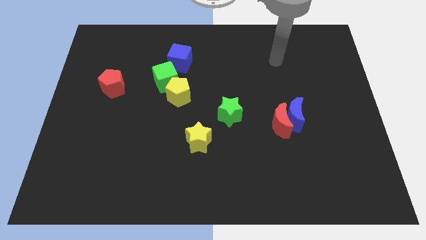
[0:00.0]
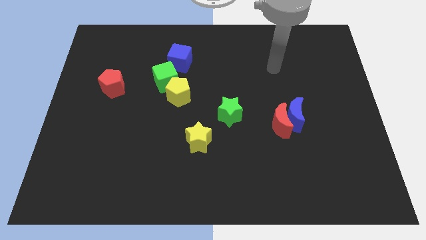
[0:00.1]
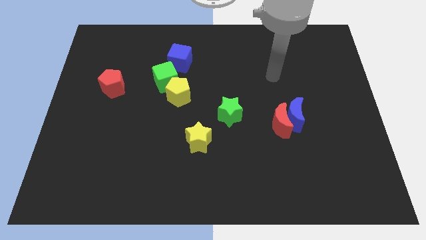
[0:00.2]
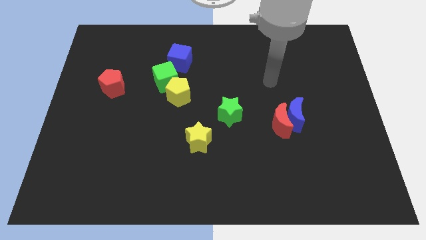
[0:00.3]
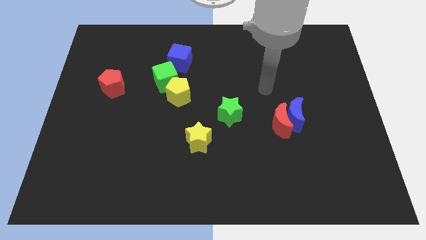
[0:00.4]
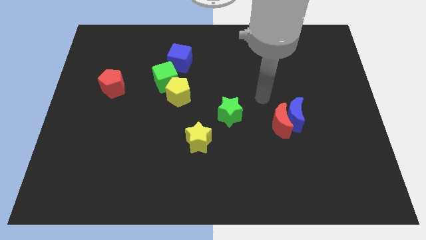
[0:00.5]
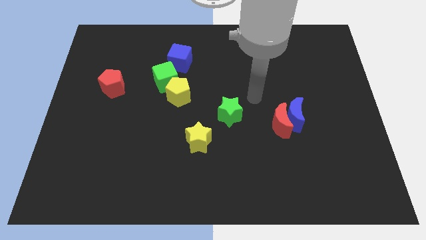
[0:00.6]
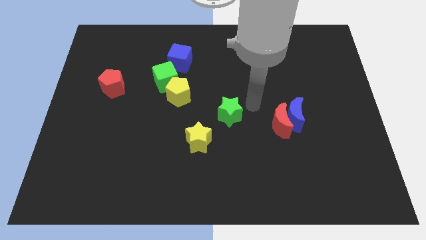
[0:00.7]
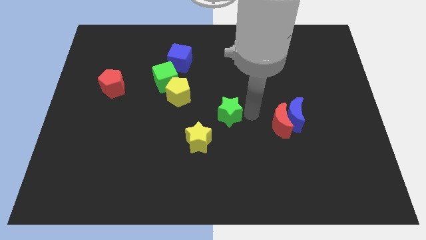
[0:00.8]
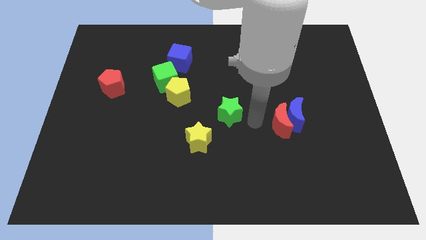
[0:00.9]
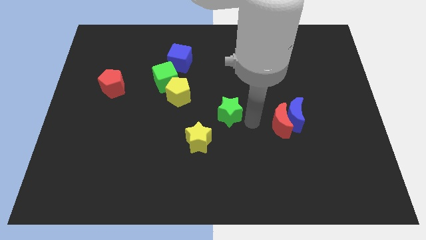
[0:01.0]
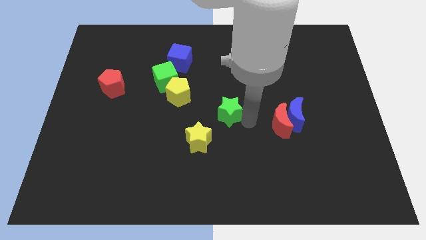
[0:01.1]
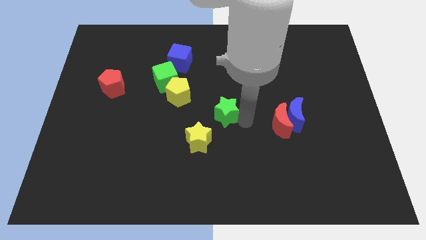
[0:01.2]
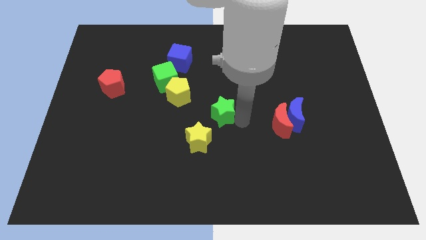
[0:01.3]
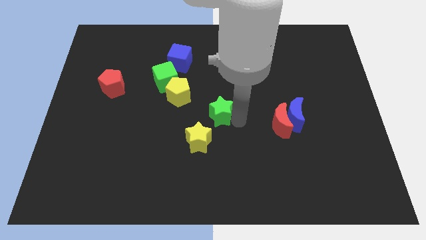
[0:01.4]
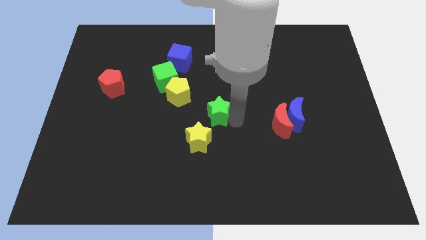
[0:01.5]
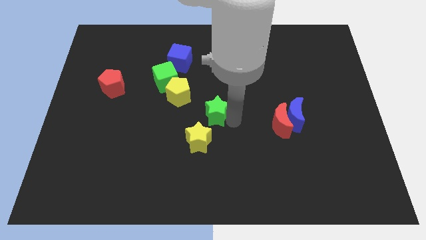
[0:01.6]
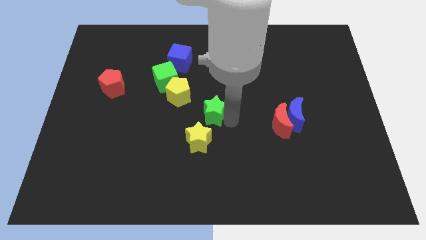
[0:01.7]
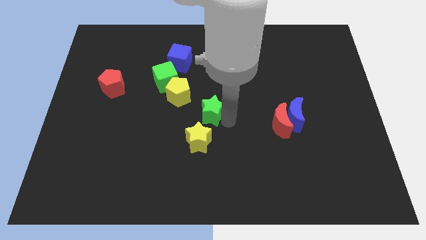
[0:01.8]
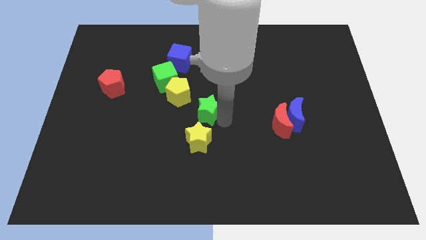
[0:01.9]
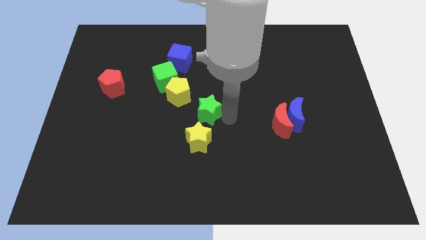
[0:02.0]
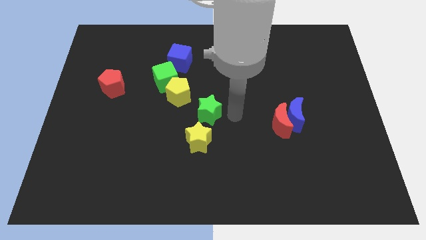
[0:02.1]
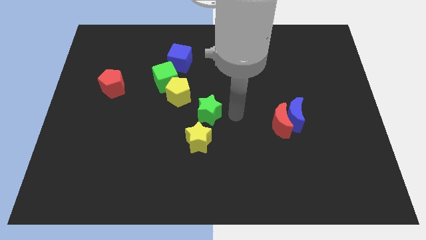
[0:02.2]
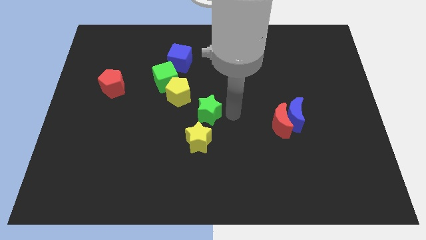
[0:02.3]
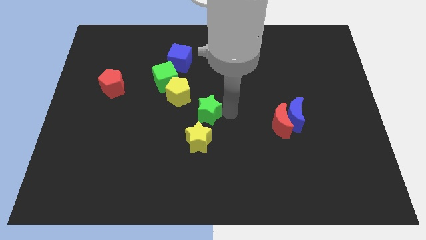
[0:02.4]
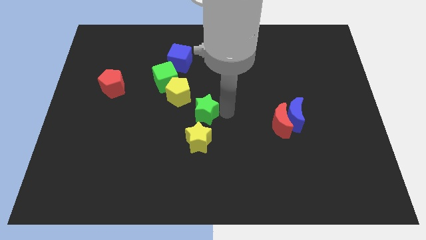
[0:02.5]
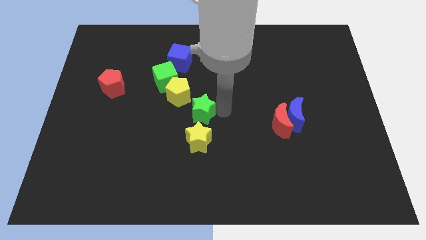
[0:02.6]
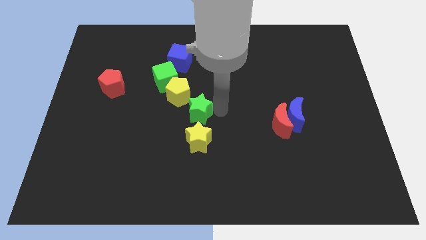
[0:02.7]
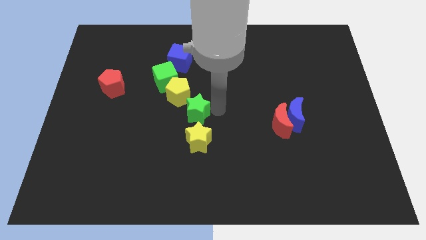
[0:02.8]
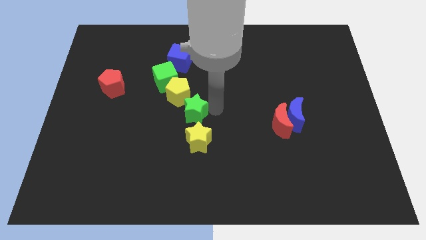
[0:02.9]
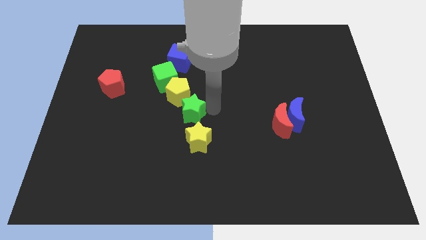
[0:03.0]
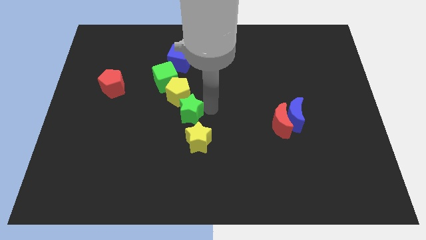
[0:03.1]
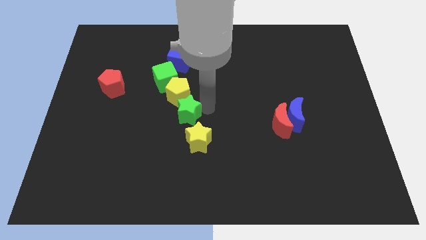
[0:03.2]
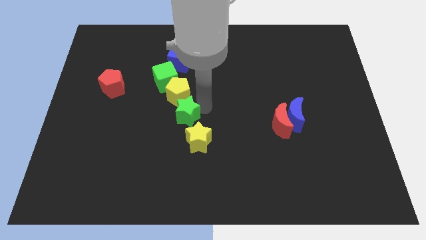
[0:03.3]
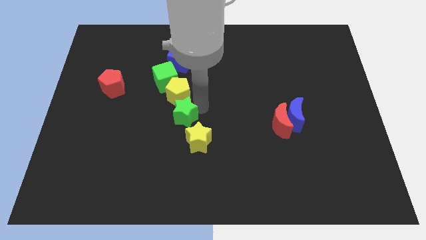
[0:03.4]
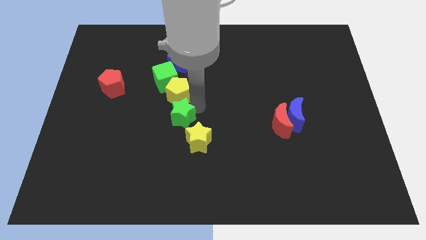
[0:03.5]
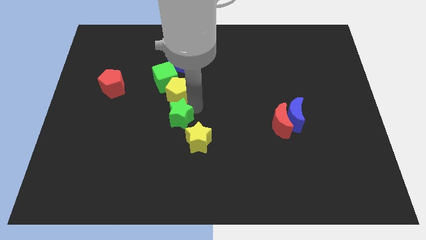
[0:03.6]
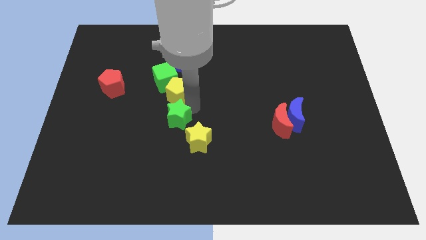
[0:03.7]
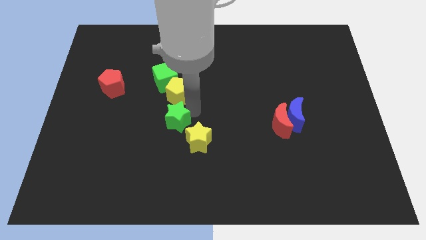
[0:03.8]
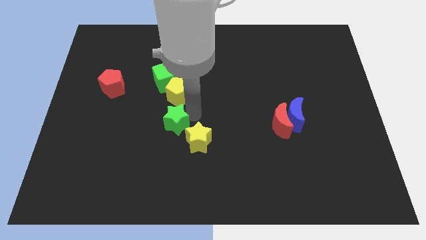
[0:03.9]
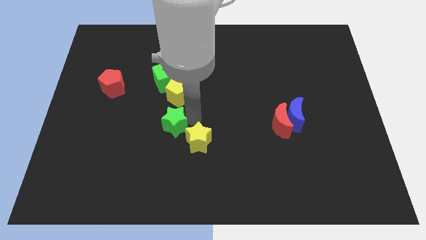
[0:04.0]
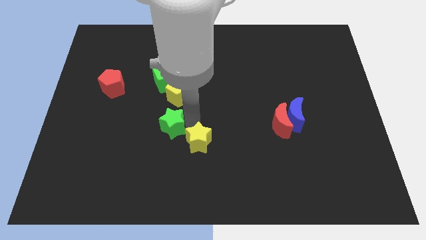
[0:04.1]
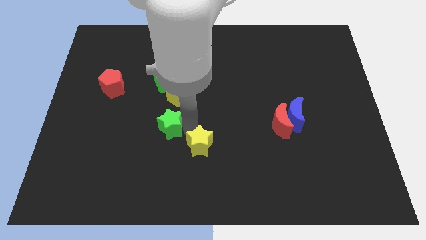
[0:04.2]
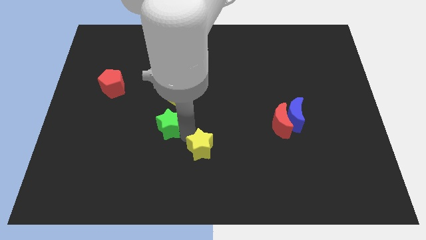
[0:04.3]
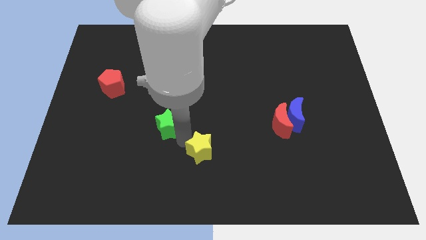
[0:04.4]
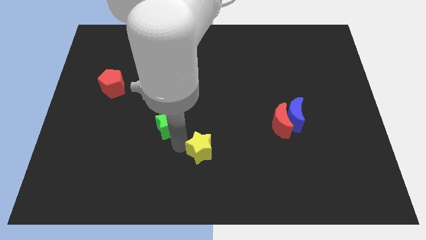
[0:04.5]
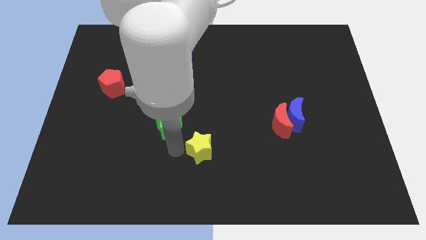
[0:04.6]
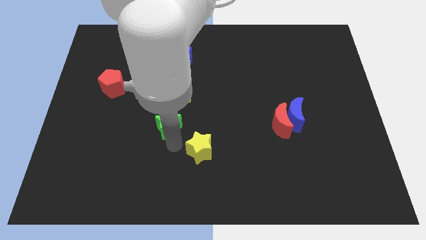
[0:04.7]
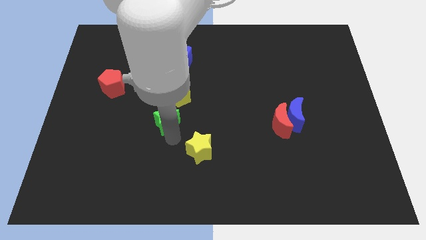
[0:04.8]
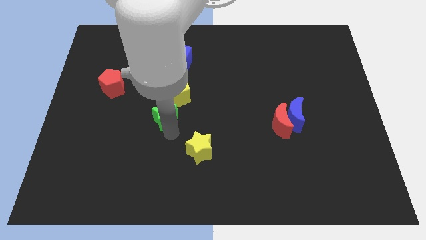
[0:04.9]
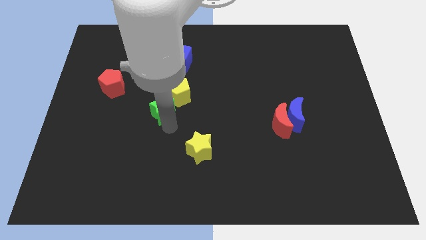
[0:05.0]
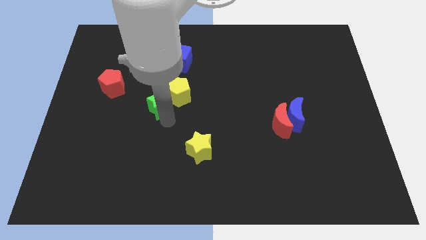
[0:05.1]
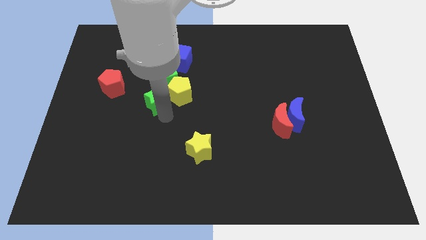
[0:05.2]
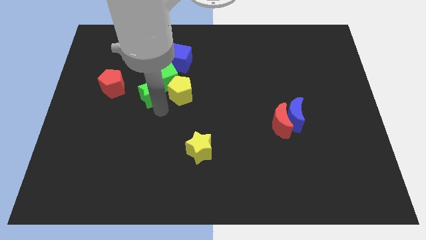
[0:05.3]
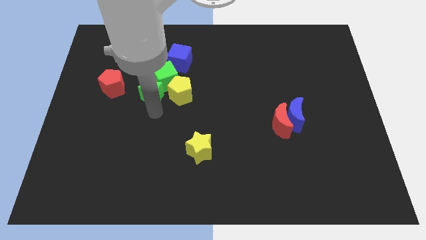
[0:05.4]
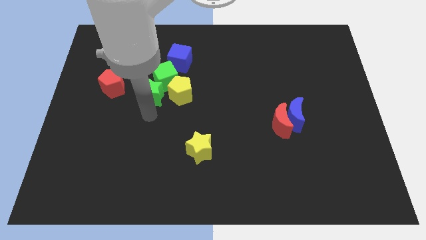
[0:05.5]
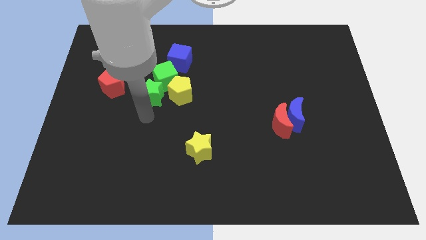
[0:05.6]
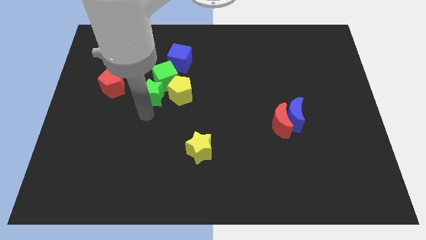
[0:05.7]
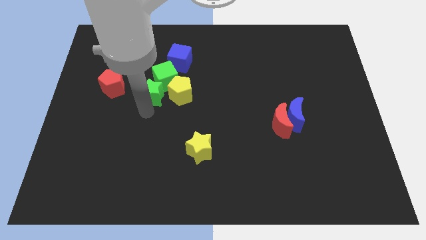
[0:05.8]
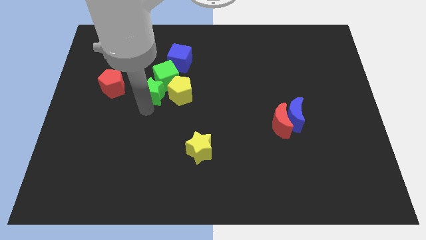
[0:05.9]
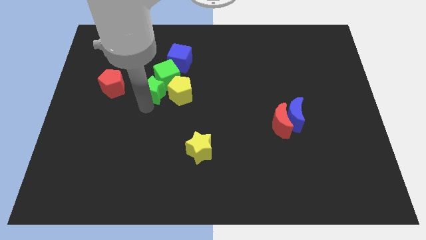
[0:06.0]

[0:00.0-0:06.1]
move the green star diagonally down and to the left of the blue cube
